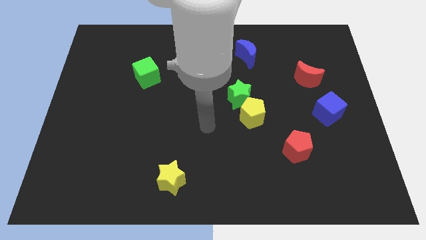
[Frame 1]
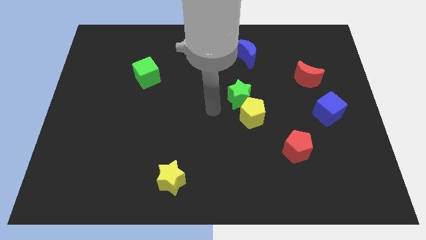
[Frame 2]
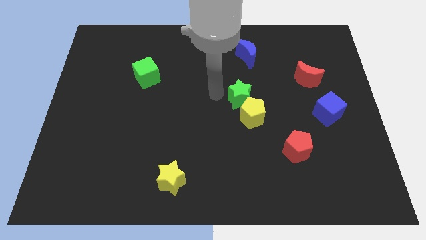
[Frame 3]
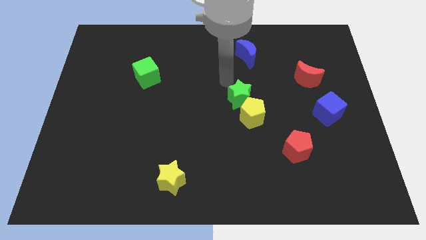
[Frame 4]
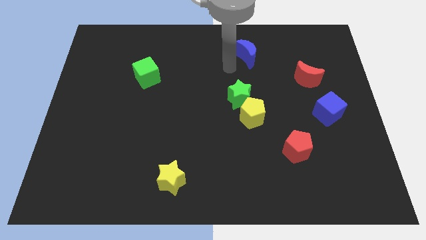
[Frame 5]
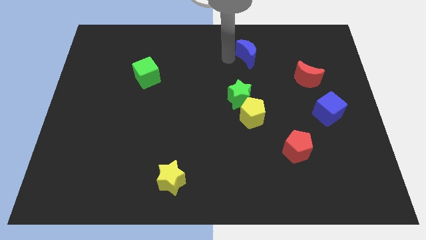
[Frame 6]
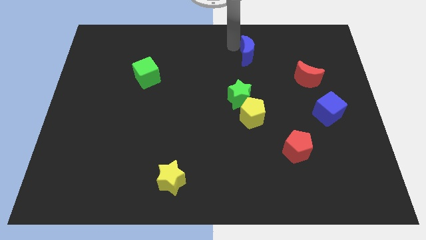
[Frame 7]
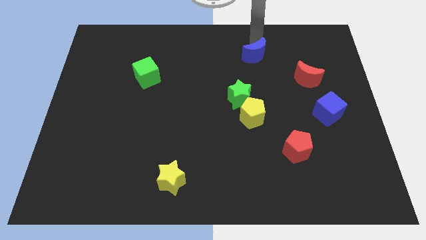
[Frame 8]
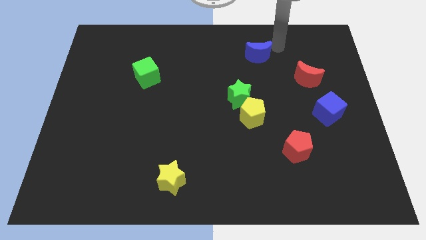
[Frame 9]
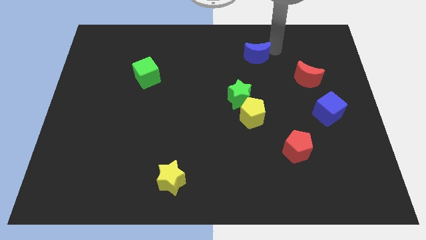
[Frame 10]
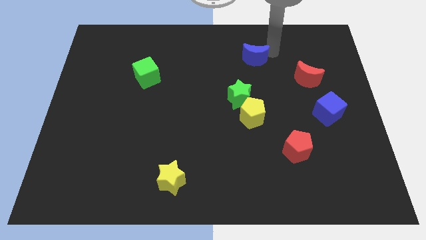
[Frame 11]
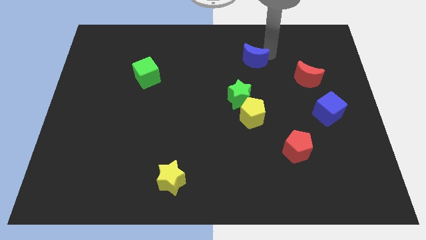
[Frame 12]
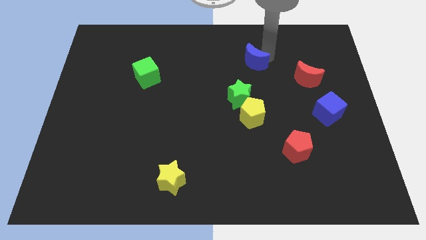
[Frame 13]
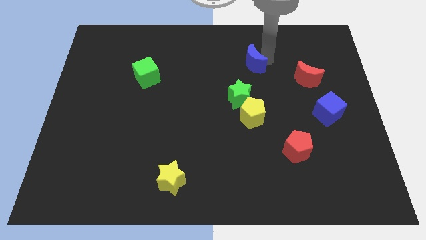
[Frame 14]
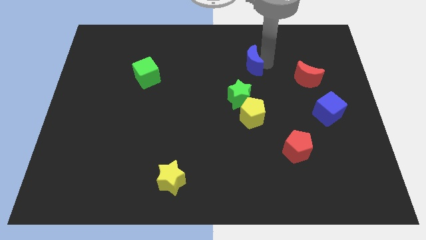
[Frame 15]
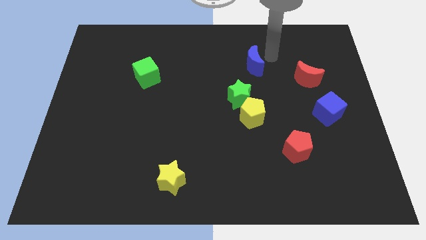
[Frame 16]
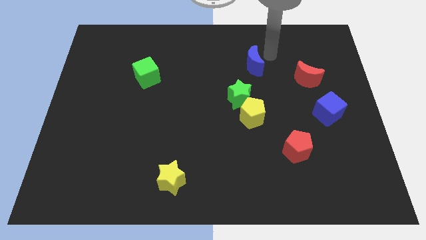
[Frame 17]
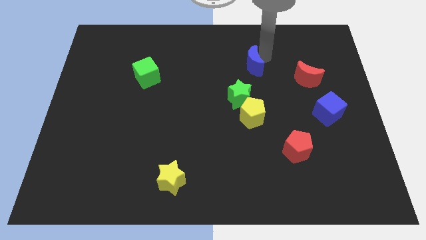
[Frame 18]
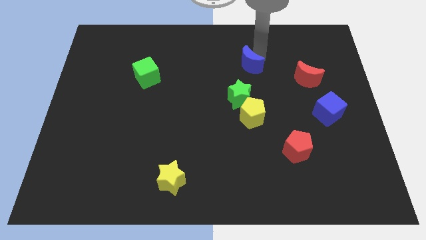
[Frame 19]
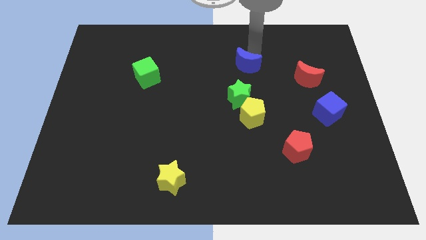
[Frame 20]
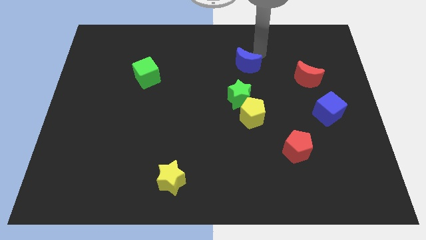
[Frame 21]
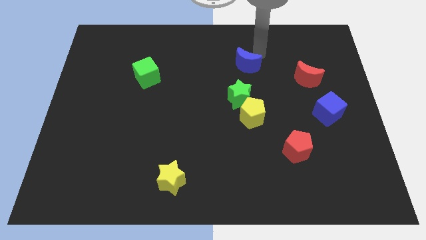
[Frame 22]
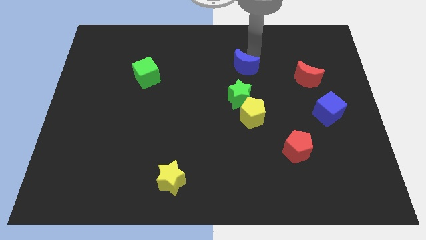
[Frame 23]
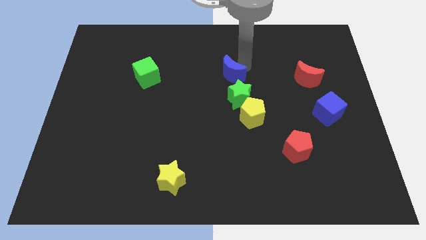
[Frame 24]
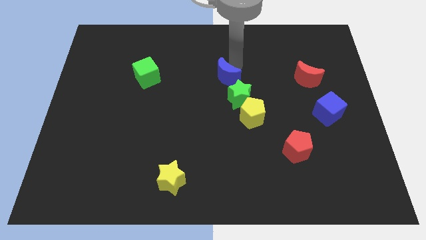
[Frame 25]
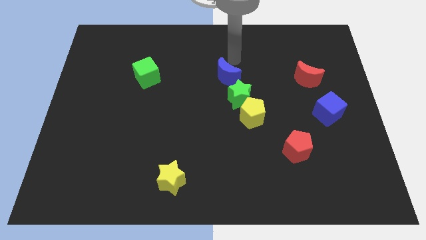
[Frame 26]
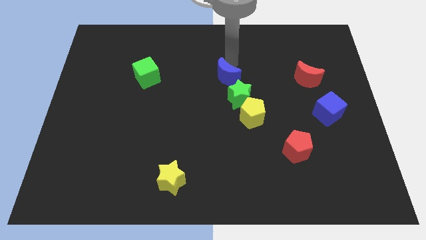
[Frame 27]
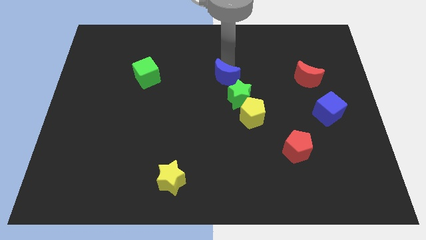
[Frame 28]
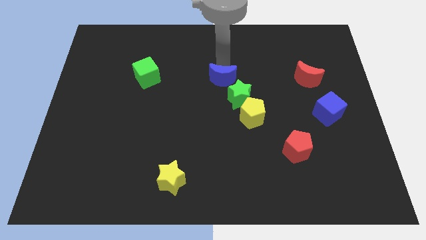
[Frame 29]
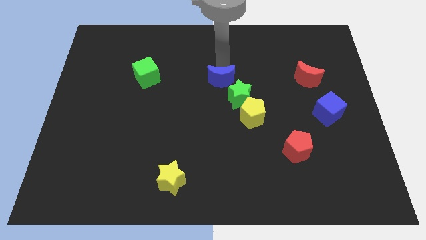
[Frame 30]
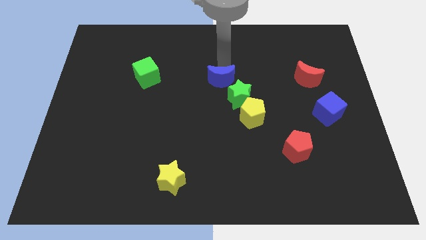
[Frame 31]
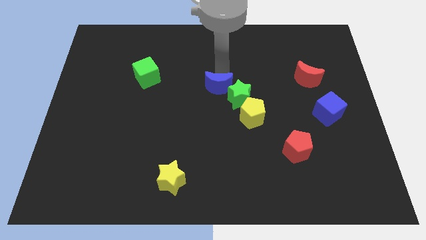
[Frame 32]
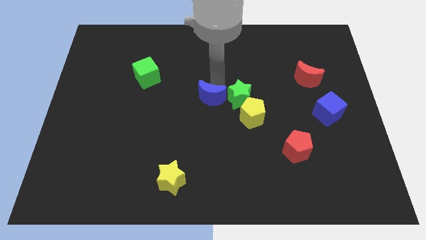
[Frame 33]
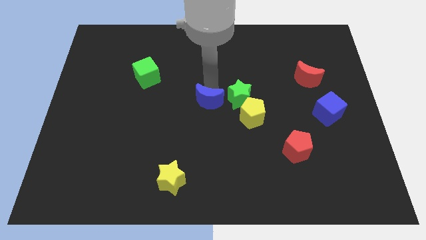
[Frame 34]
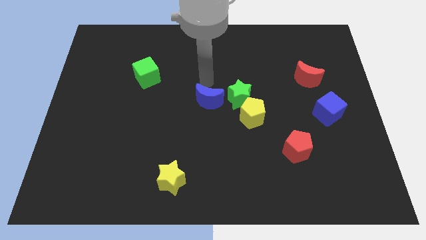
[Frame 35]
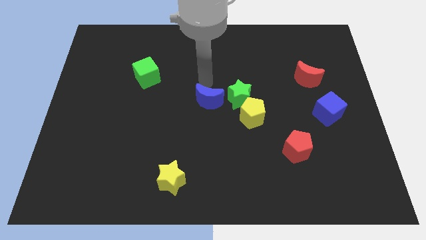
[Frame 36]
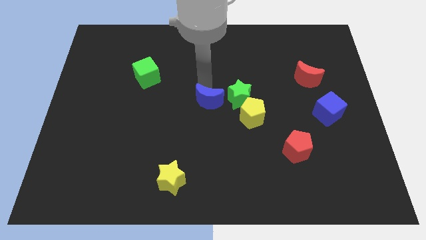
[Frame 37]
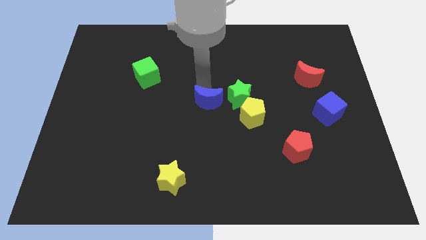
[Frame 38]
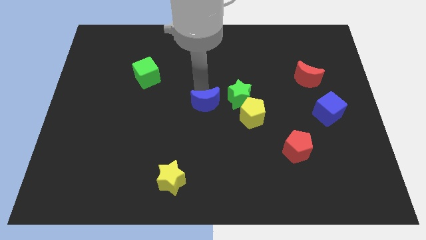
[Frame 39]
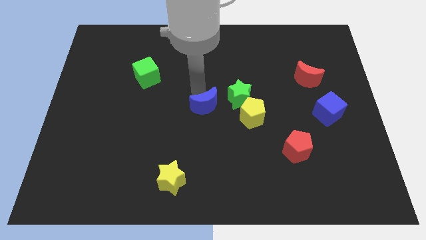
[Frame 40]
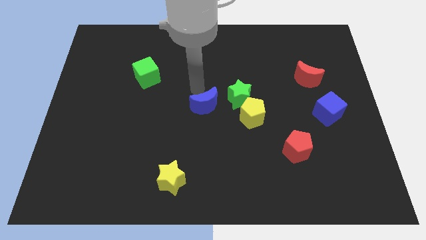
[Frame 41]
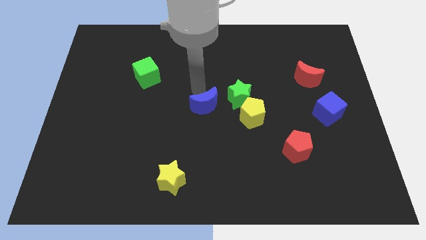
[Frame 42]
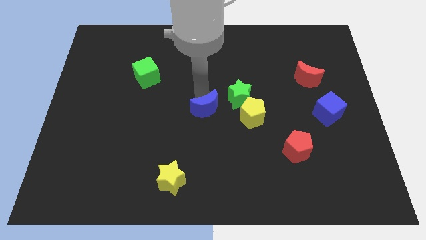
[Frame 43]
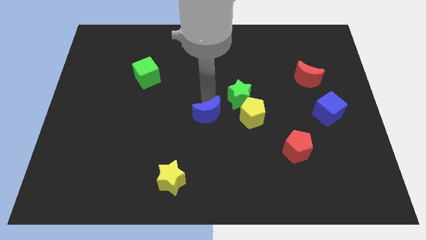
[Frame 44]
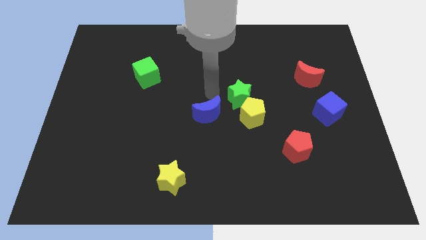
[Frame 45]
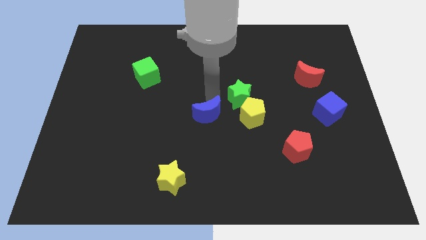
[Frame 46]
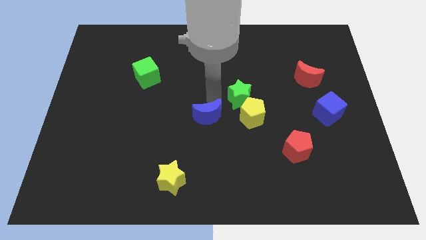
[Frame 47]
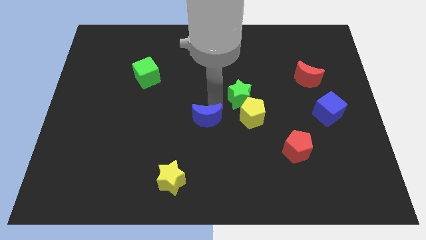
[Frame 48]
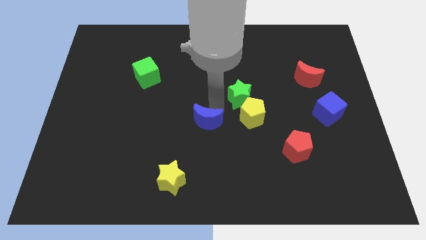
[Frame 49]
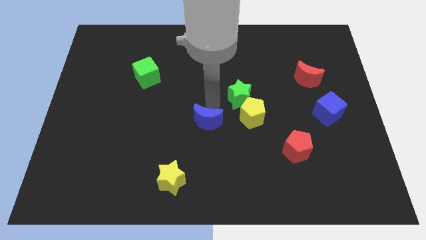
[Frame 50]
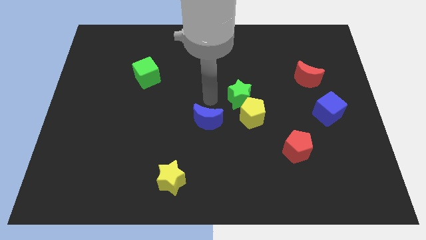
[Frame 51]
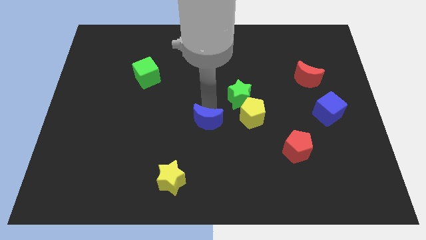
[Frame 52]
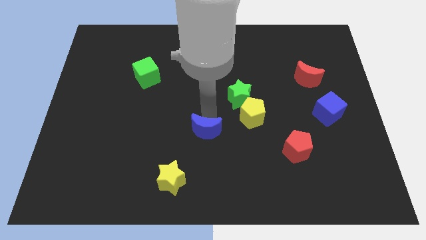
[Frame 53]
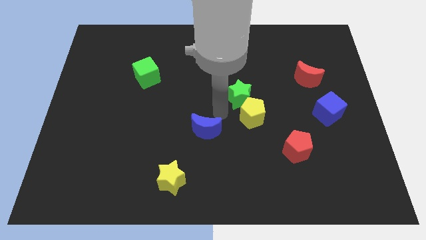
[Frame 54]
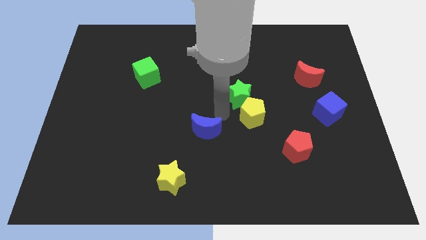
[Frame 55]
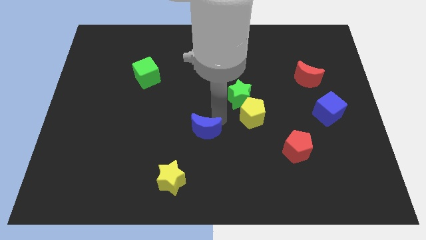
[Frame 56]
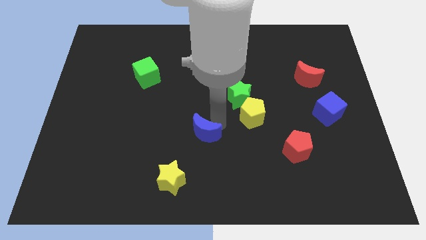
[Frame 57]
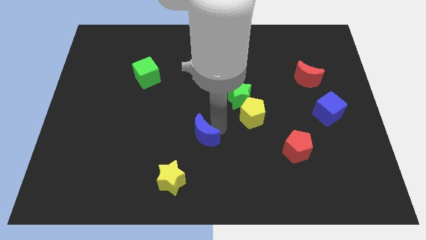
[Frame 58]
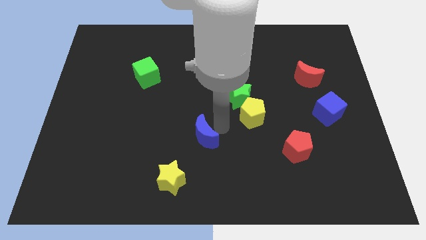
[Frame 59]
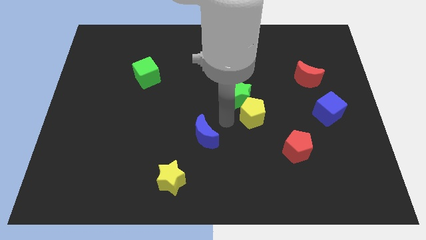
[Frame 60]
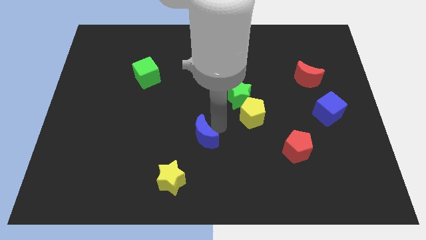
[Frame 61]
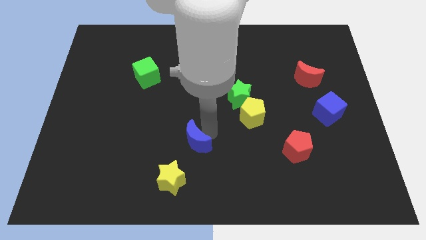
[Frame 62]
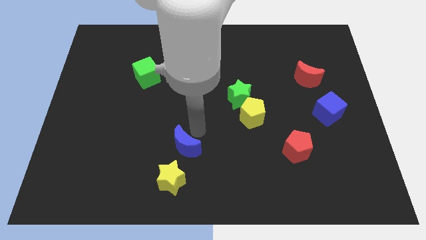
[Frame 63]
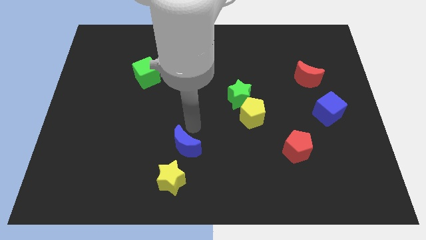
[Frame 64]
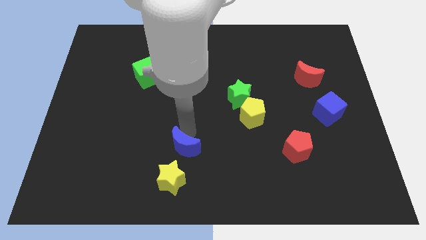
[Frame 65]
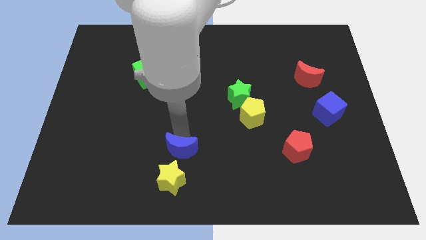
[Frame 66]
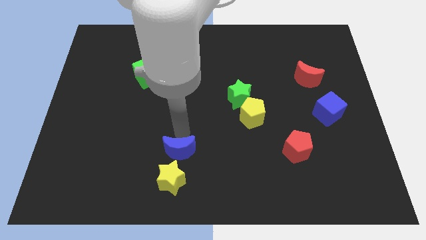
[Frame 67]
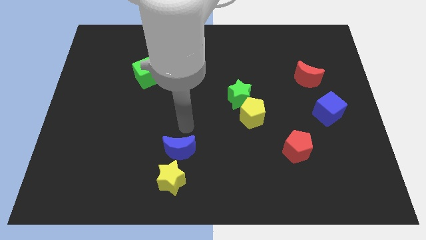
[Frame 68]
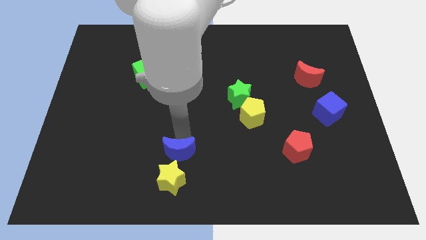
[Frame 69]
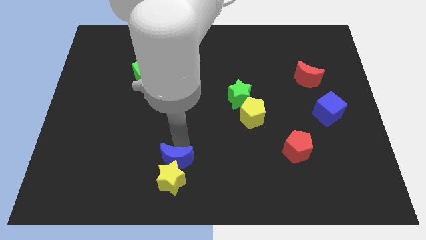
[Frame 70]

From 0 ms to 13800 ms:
put the blue moon close to the yellow star

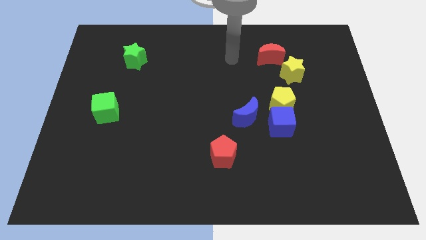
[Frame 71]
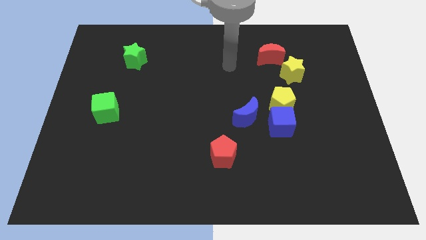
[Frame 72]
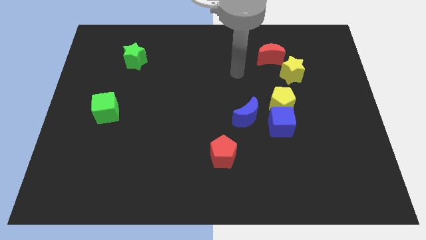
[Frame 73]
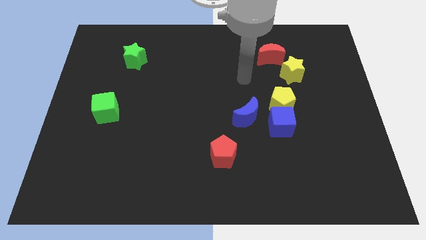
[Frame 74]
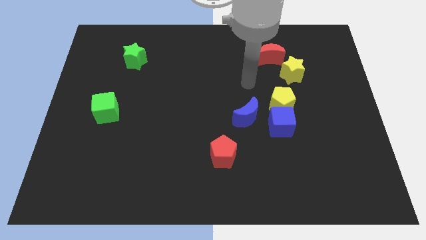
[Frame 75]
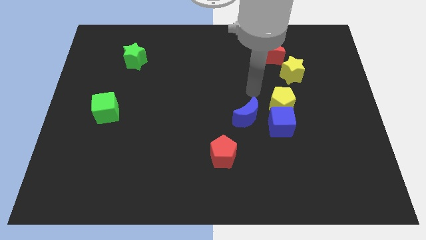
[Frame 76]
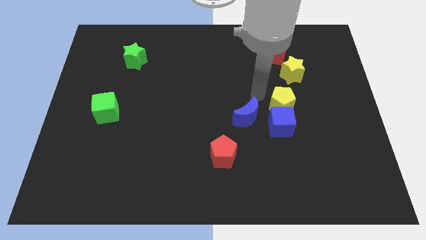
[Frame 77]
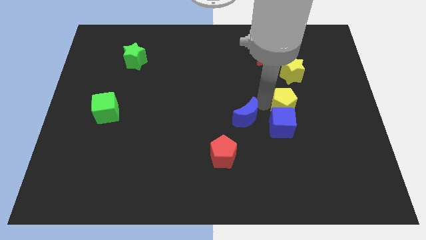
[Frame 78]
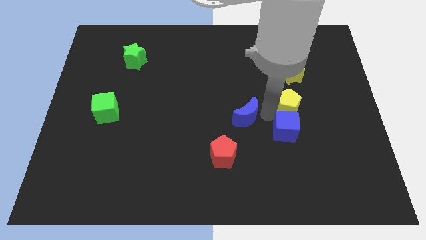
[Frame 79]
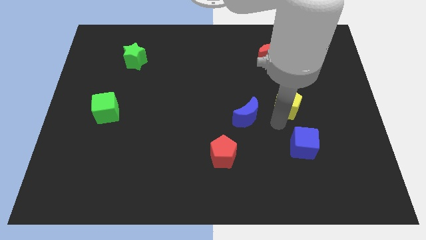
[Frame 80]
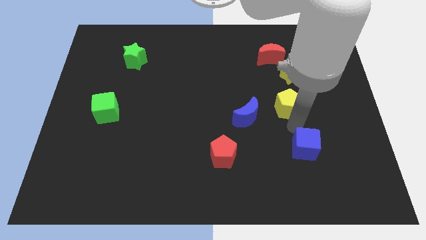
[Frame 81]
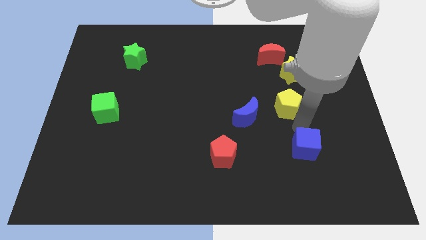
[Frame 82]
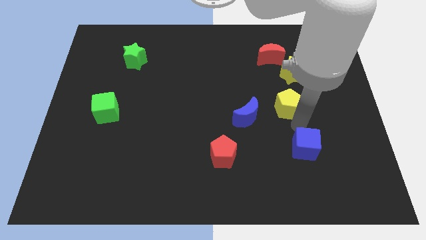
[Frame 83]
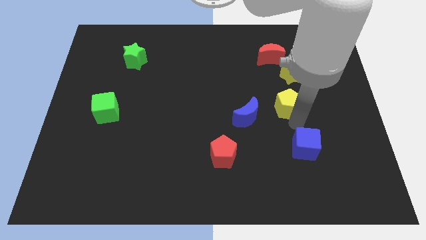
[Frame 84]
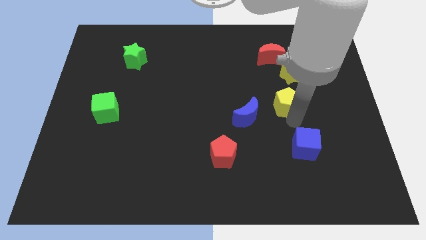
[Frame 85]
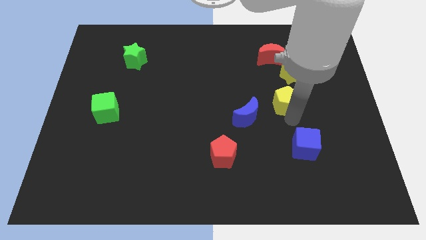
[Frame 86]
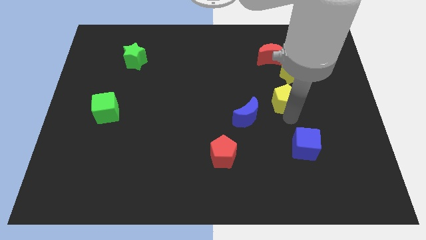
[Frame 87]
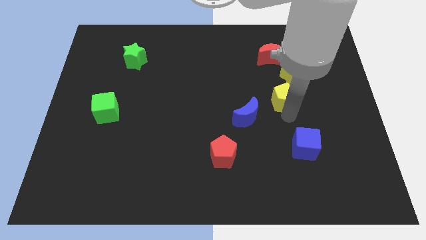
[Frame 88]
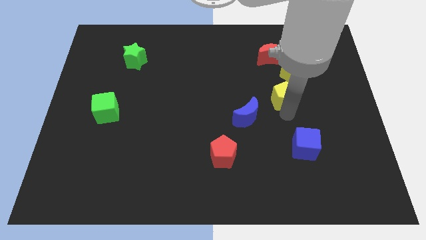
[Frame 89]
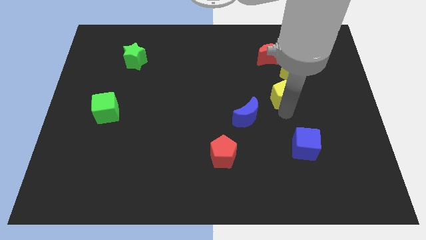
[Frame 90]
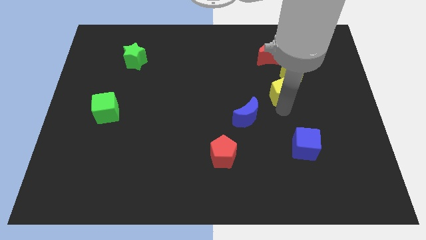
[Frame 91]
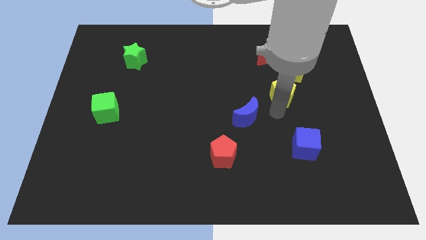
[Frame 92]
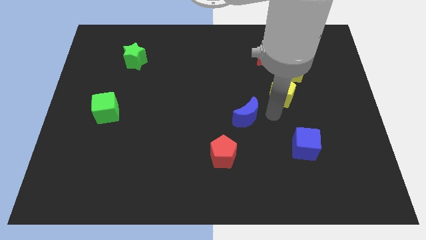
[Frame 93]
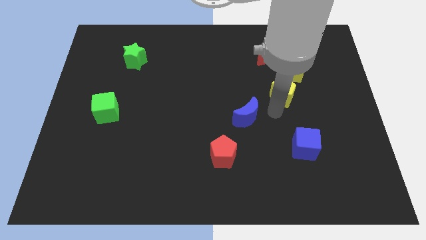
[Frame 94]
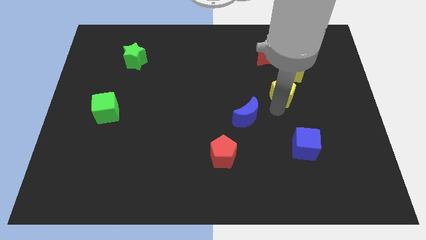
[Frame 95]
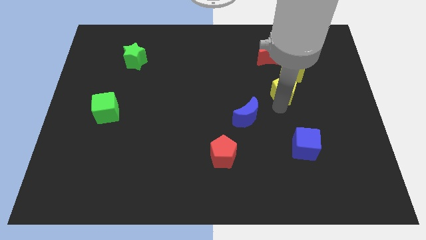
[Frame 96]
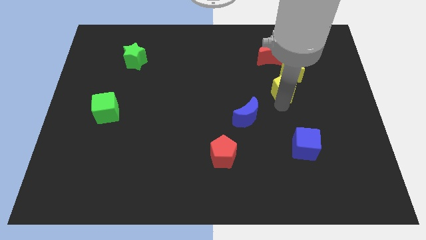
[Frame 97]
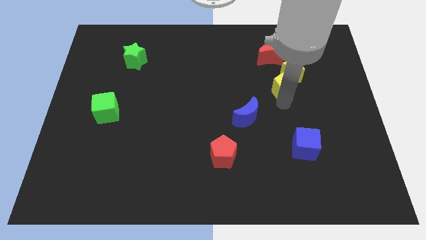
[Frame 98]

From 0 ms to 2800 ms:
push the yellow pentagon to the yellow star
